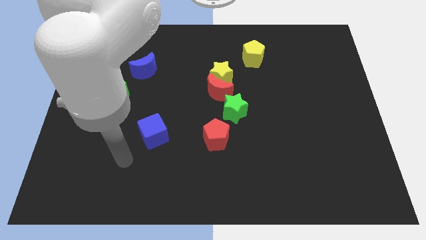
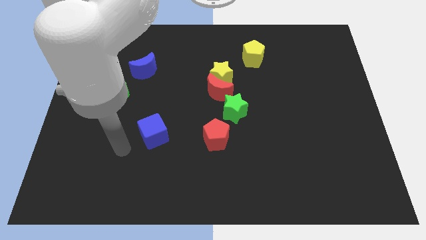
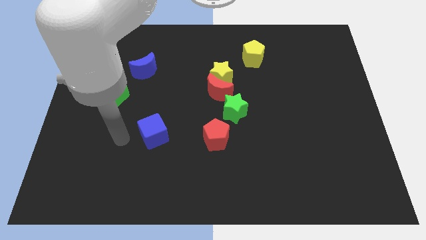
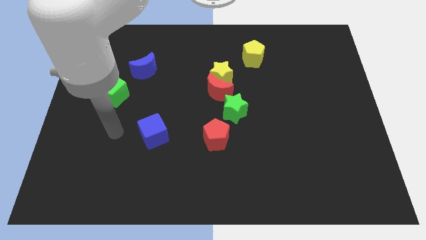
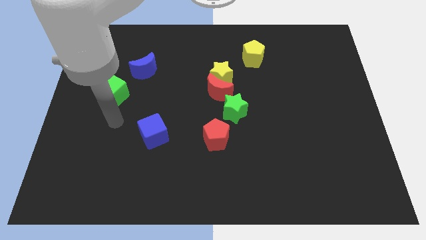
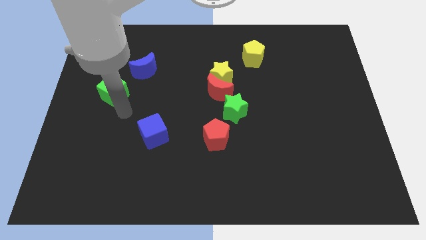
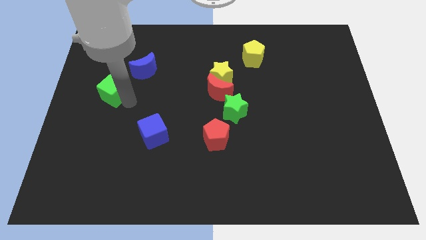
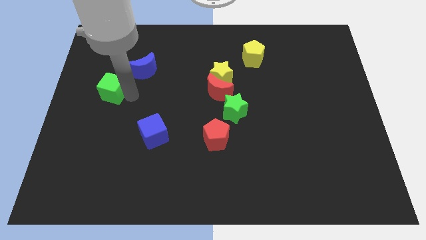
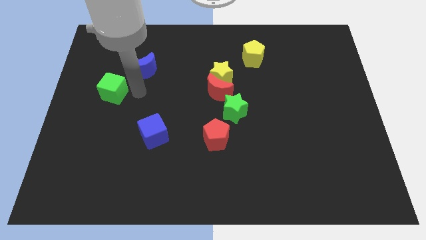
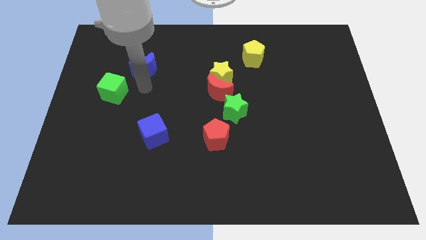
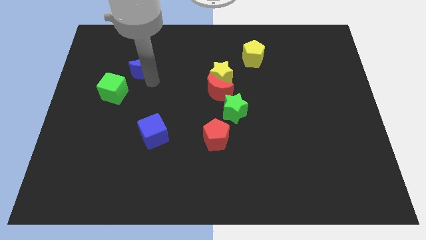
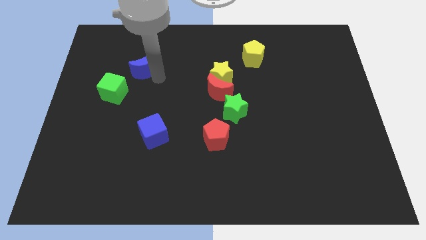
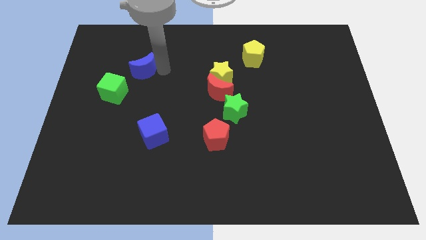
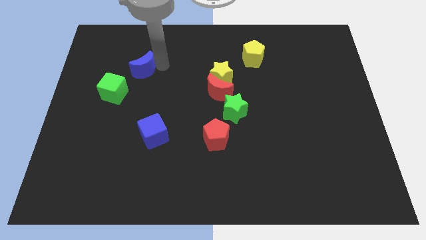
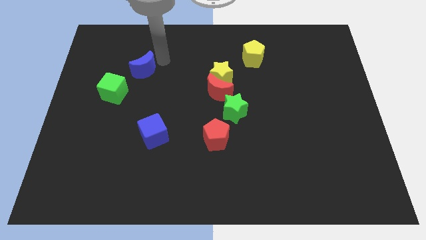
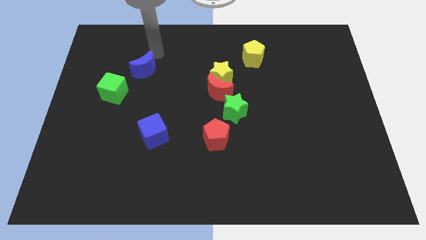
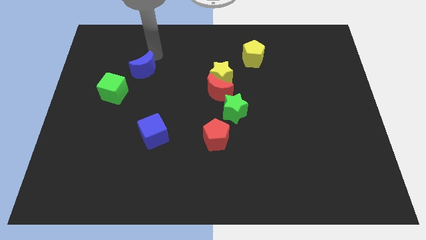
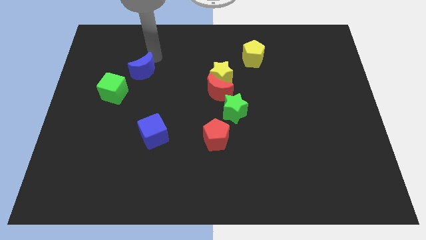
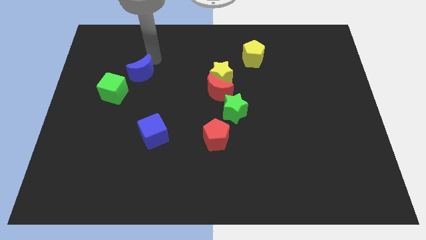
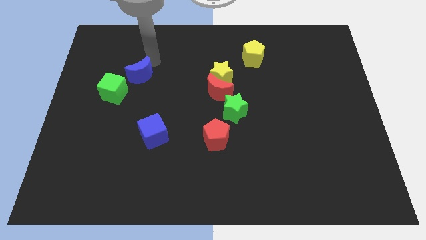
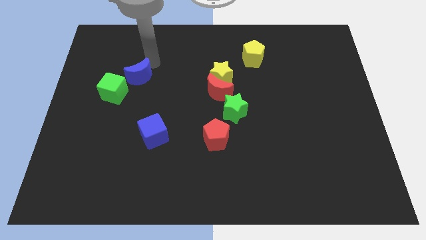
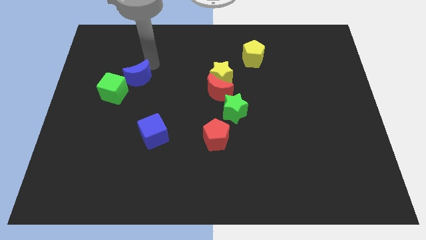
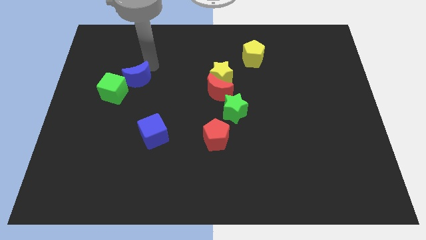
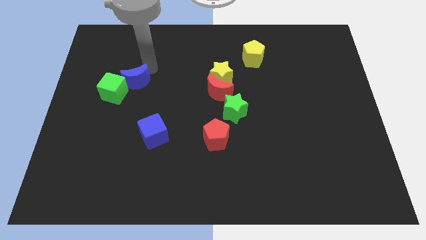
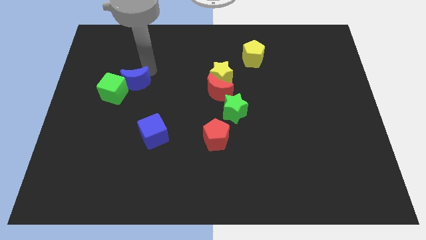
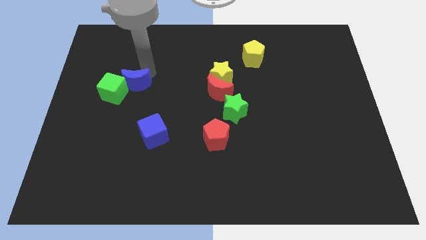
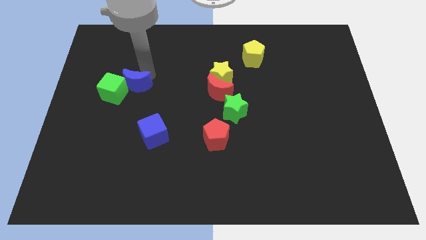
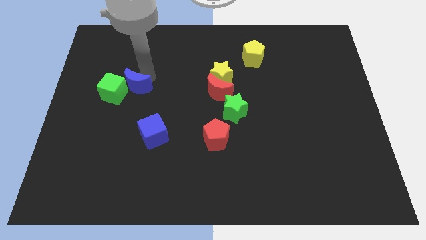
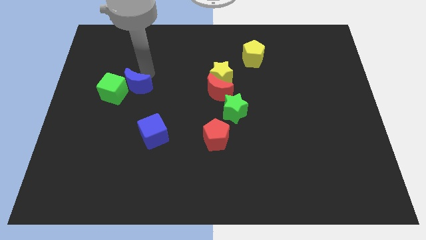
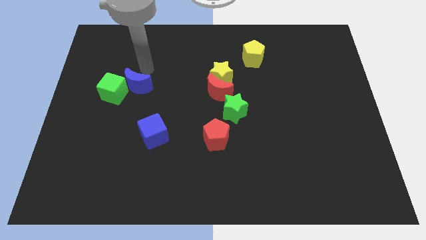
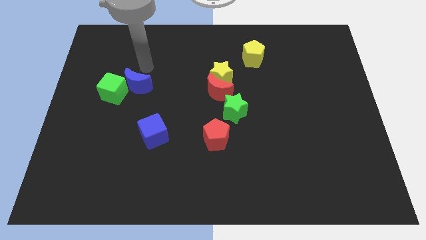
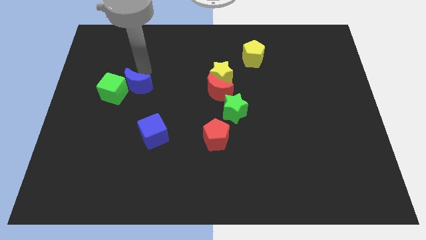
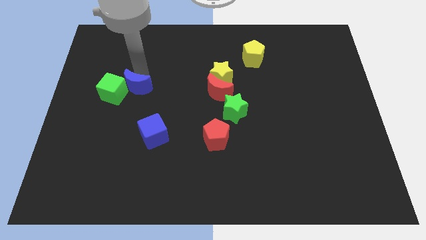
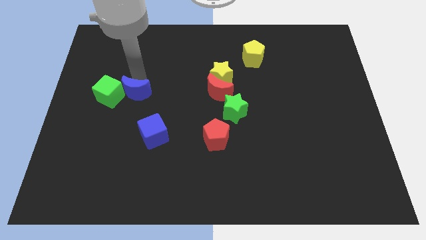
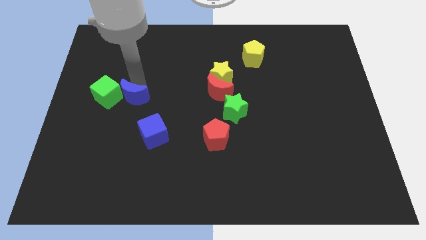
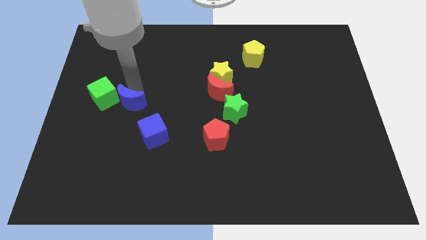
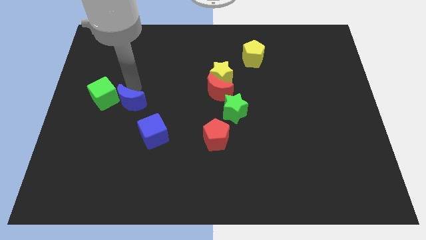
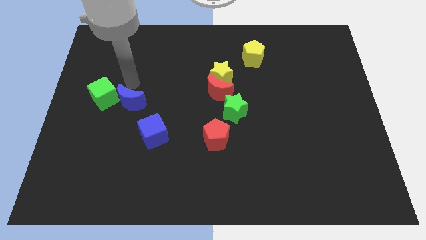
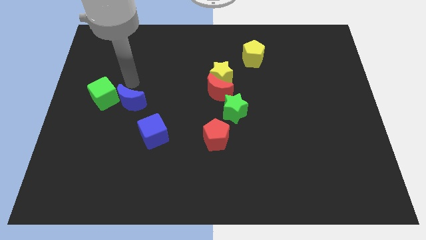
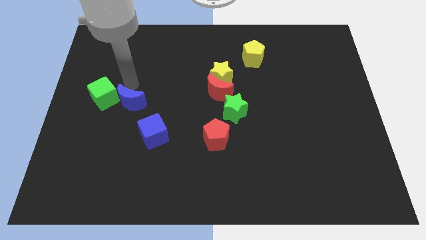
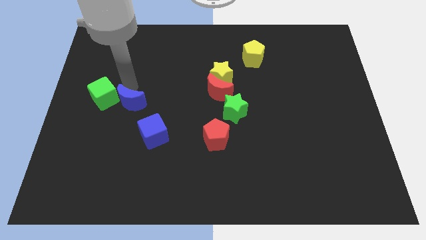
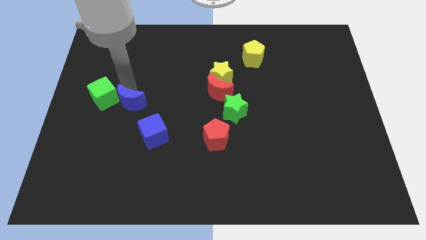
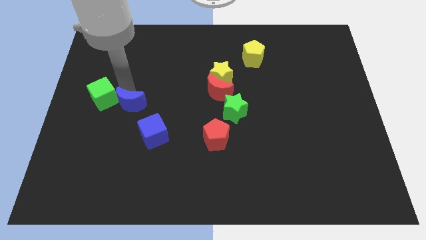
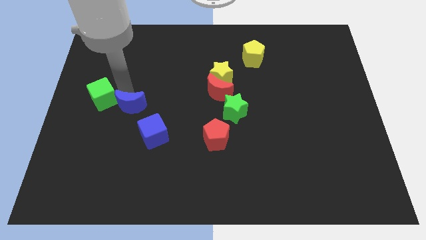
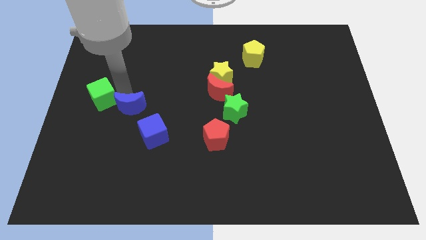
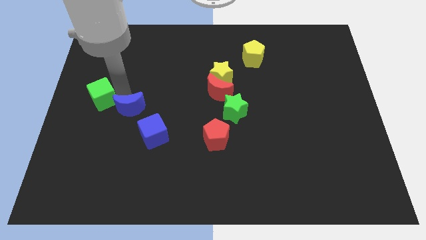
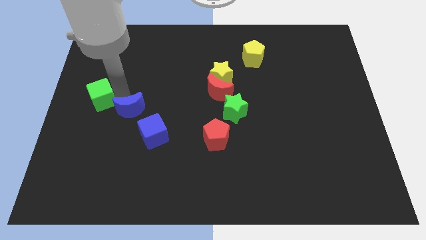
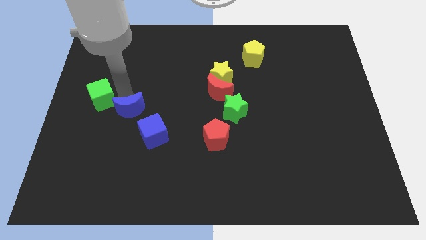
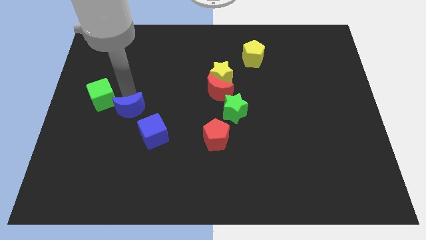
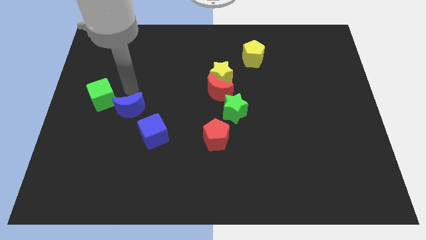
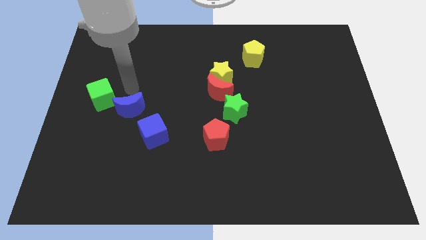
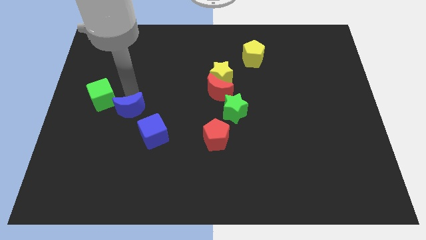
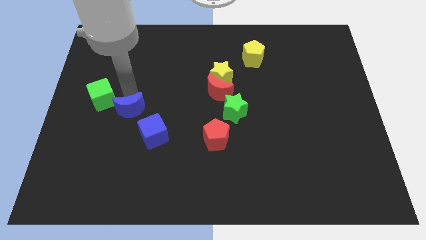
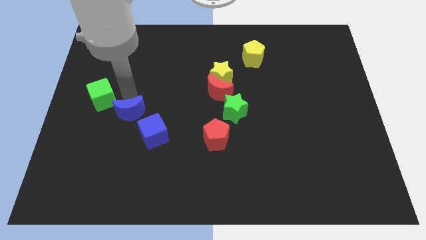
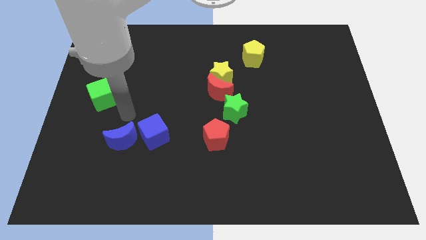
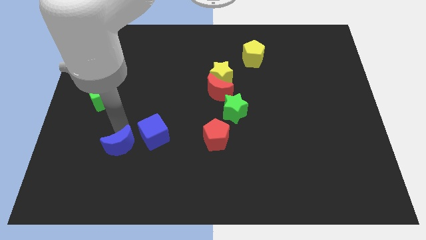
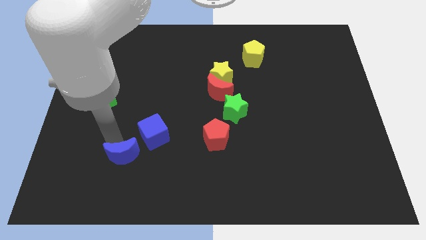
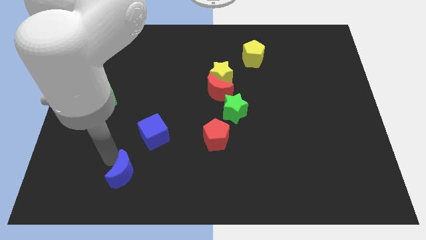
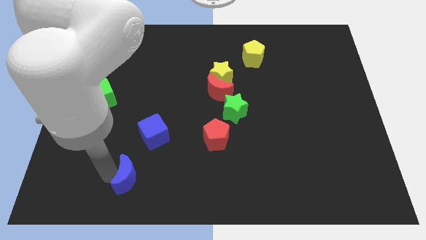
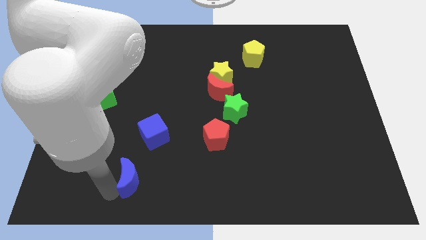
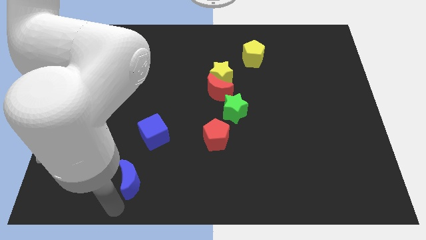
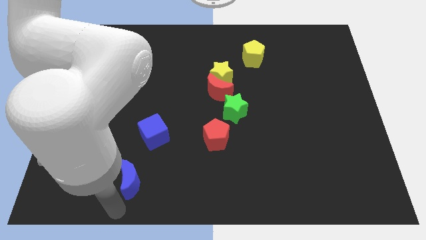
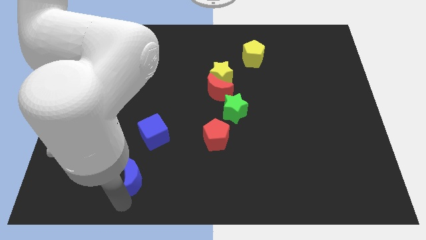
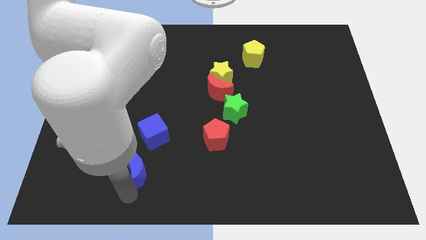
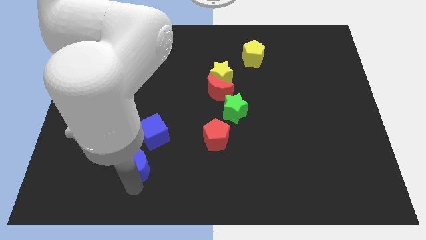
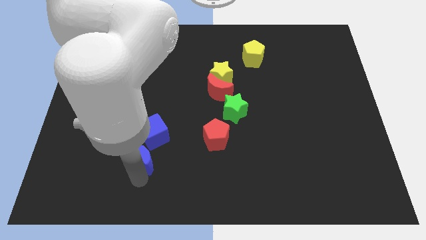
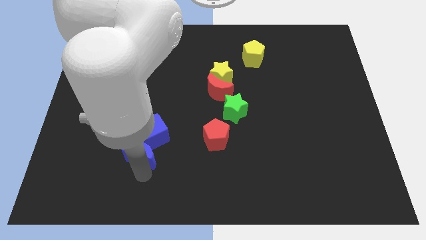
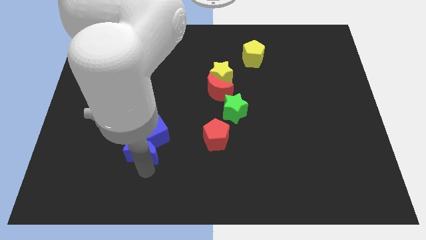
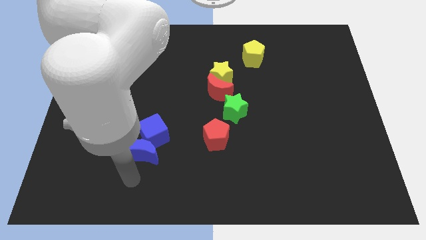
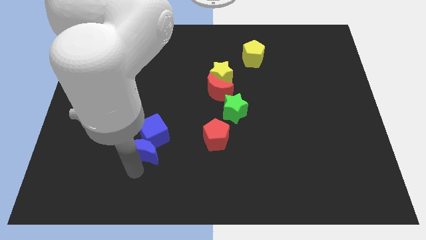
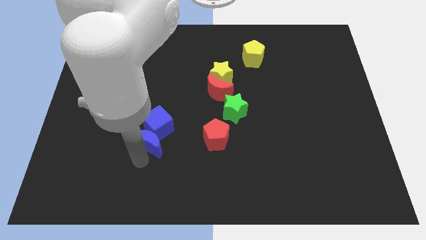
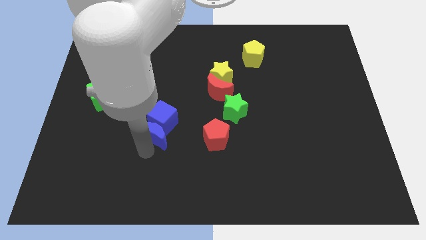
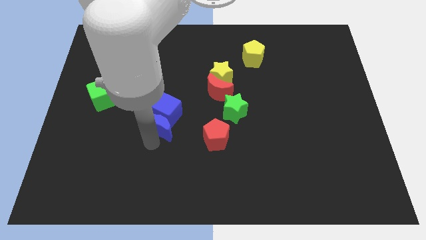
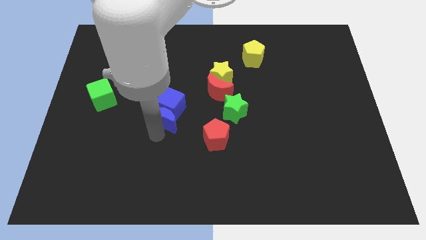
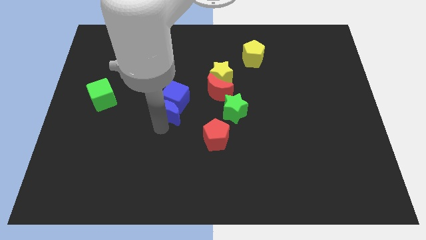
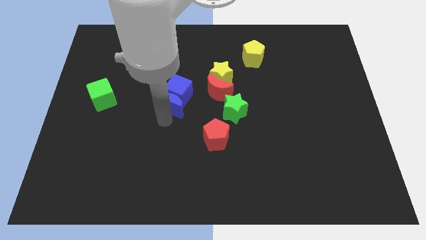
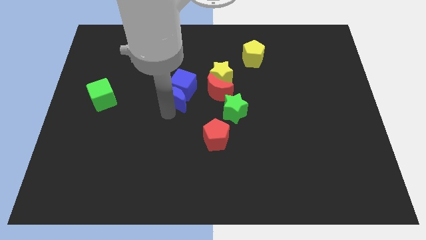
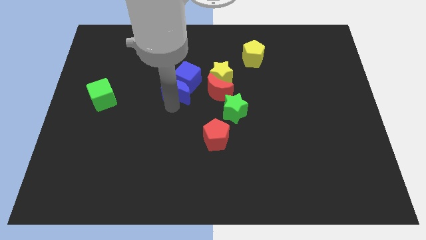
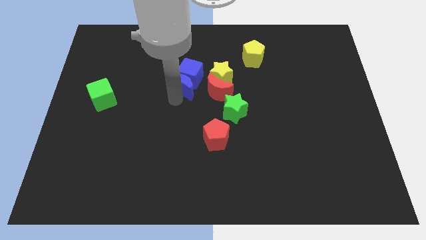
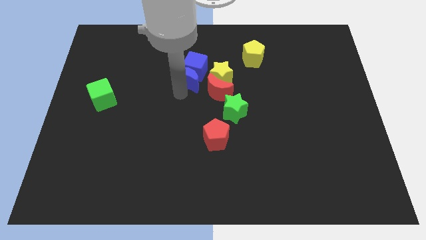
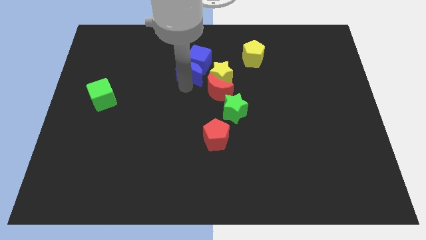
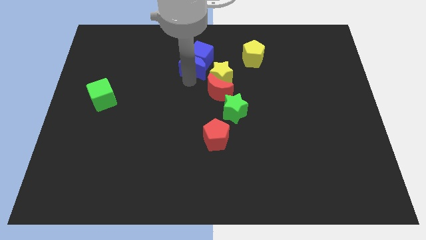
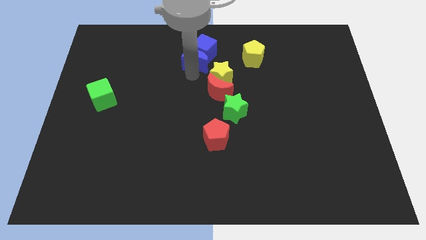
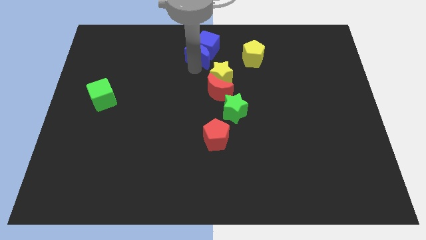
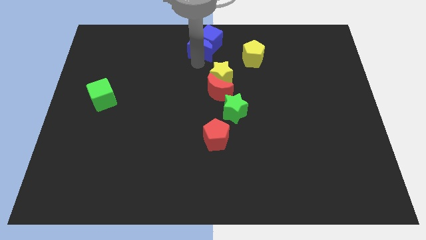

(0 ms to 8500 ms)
push the blue moon to the top
